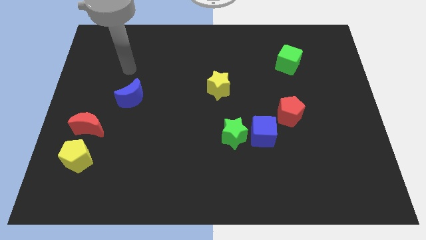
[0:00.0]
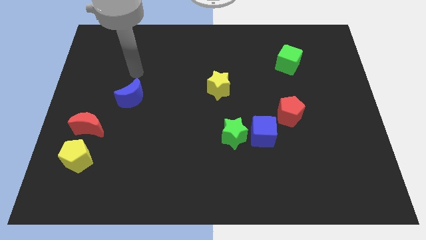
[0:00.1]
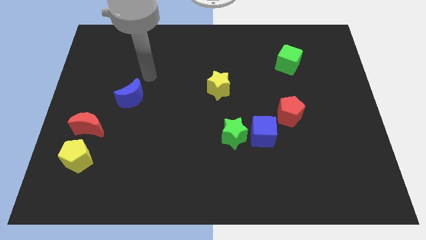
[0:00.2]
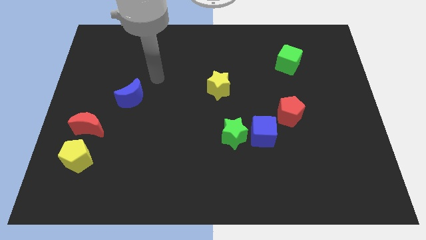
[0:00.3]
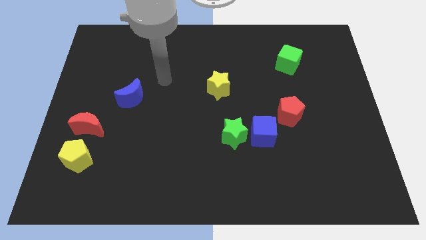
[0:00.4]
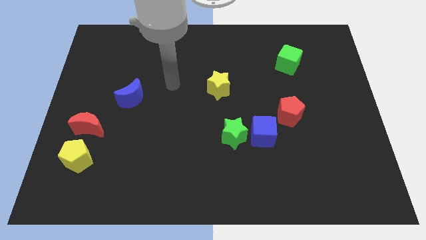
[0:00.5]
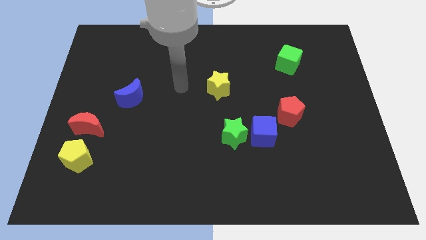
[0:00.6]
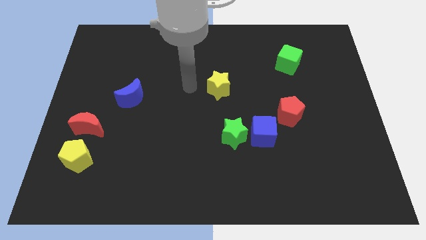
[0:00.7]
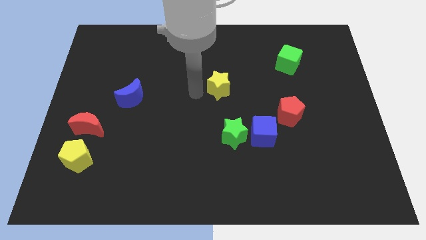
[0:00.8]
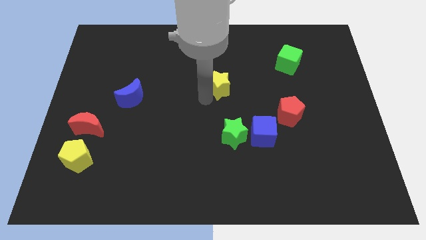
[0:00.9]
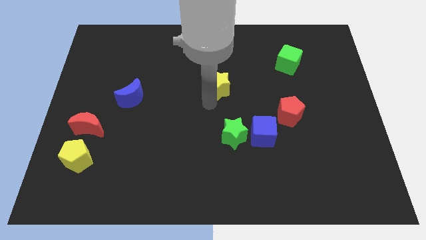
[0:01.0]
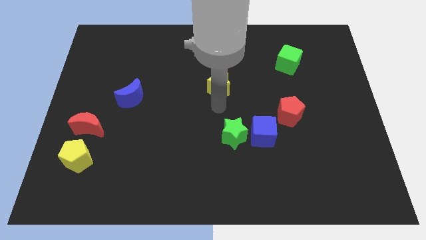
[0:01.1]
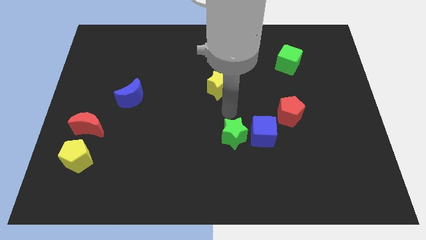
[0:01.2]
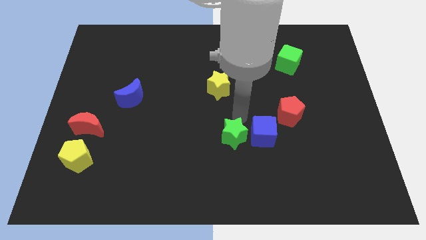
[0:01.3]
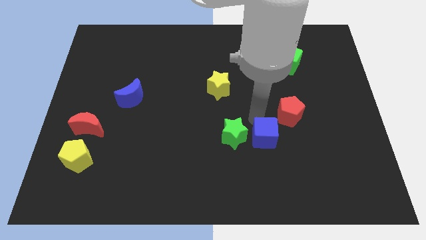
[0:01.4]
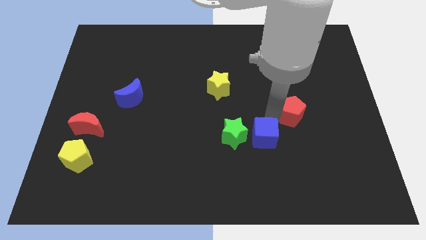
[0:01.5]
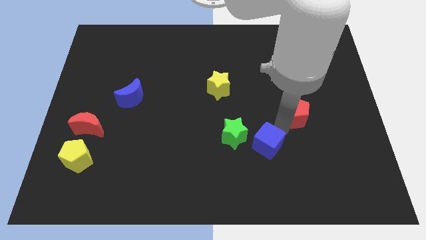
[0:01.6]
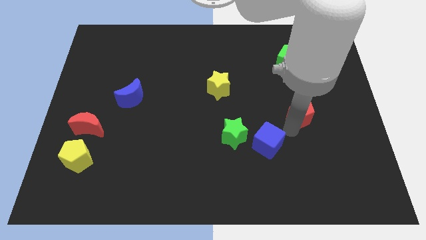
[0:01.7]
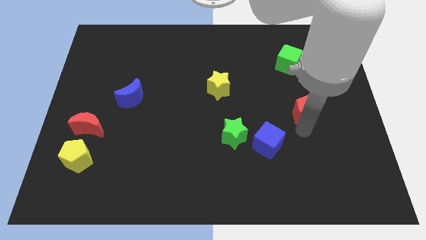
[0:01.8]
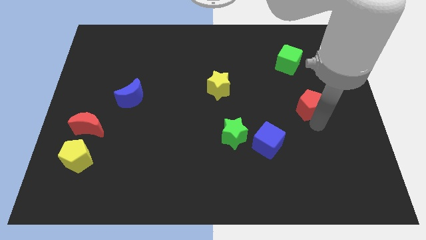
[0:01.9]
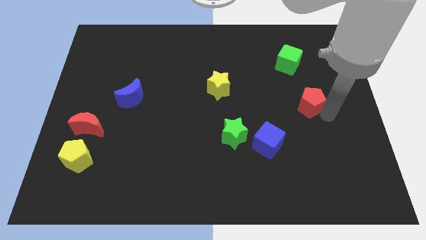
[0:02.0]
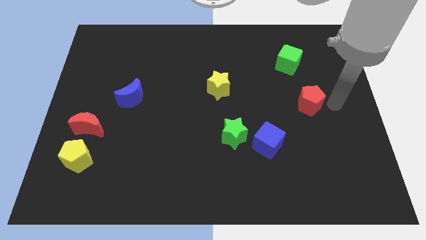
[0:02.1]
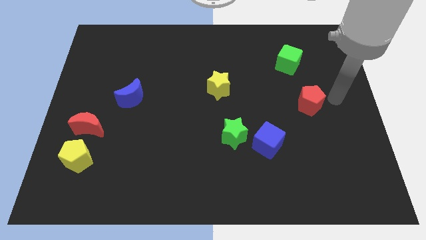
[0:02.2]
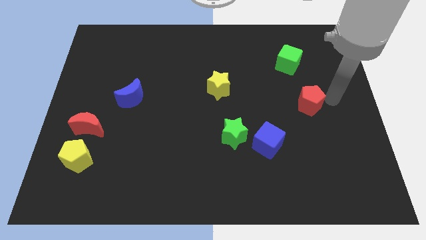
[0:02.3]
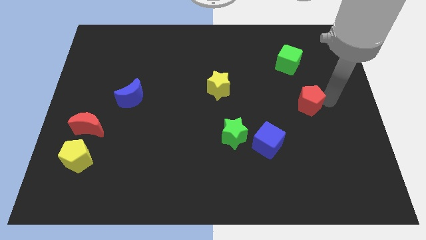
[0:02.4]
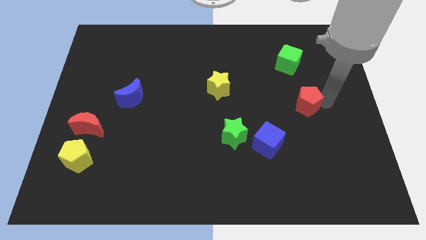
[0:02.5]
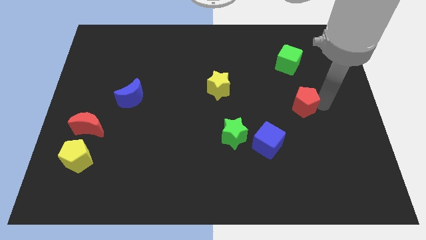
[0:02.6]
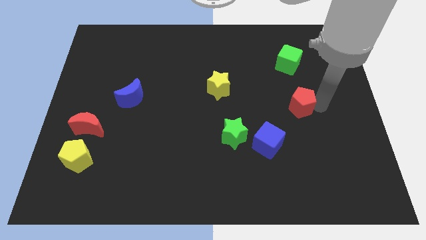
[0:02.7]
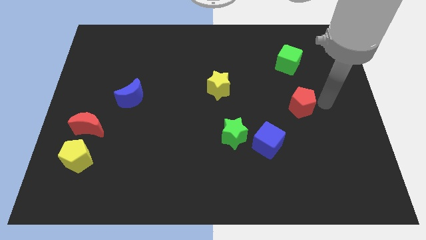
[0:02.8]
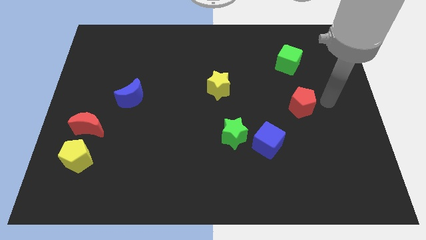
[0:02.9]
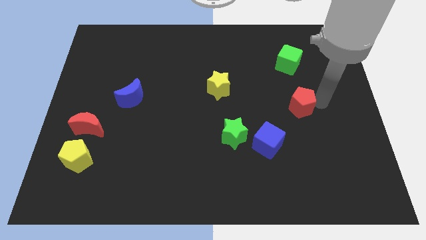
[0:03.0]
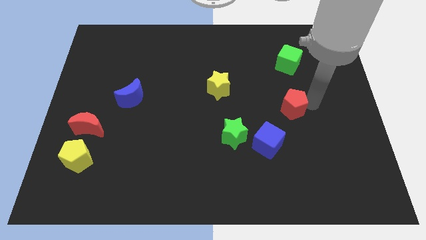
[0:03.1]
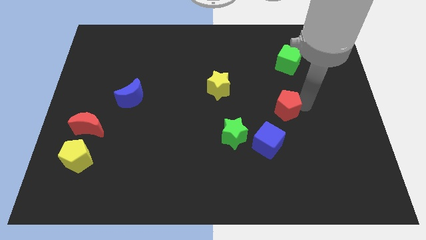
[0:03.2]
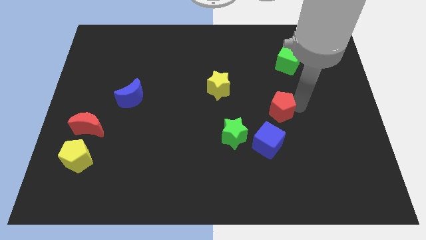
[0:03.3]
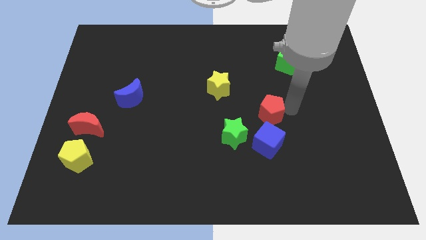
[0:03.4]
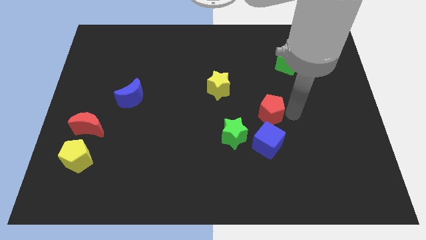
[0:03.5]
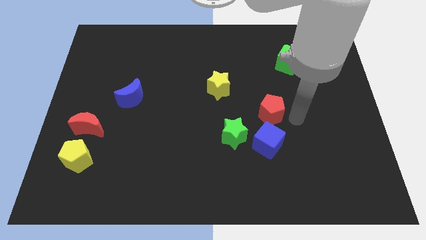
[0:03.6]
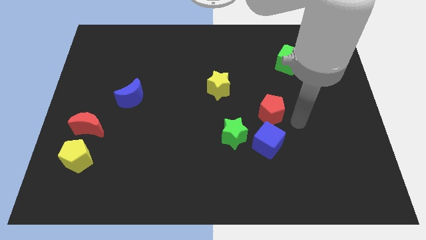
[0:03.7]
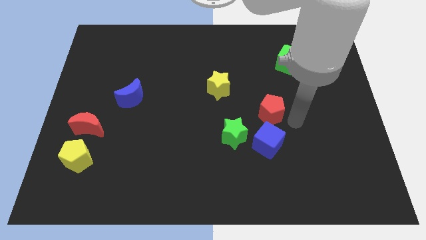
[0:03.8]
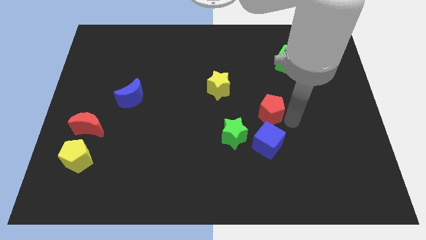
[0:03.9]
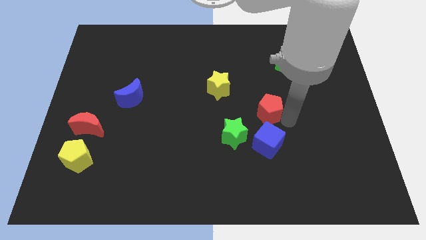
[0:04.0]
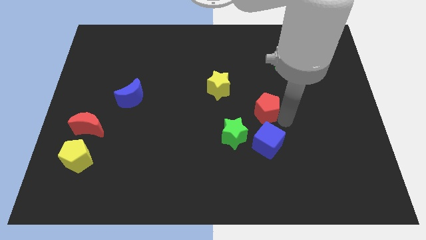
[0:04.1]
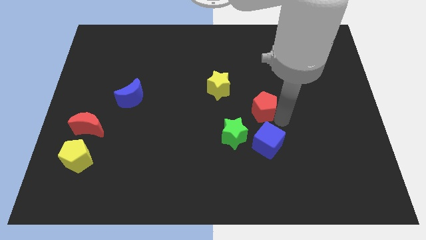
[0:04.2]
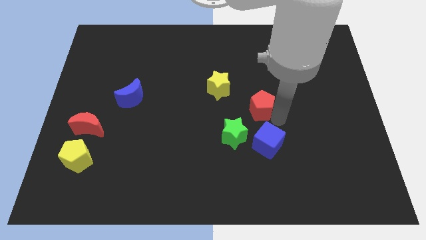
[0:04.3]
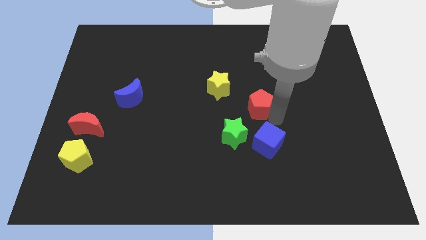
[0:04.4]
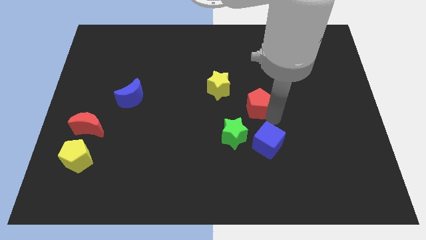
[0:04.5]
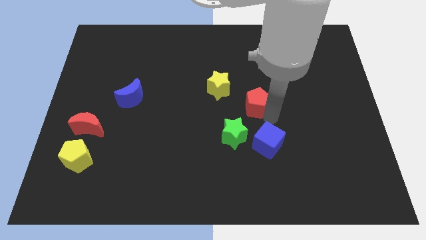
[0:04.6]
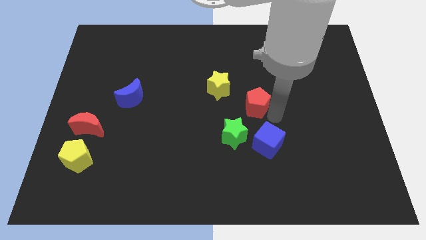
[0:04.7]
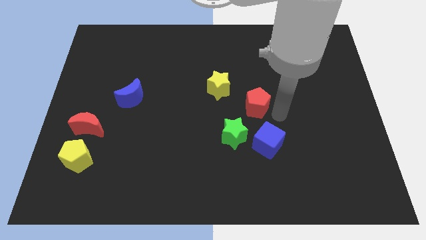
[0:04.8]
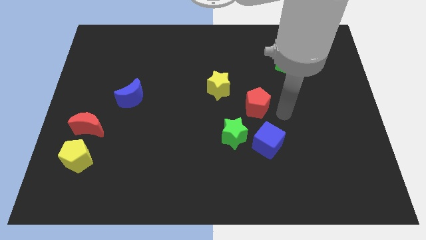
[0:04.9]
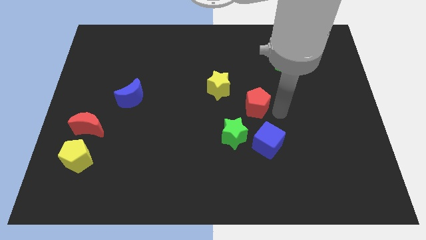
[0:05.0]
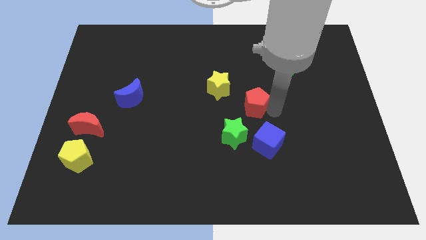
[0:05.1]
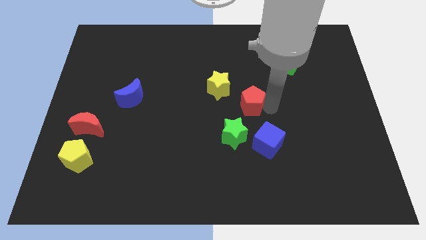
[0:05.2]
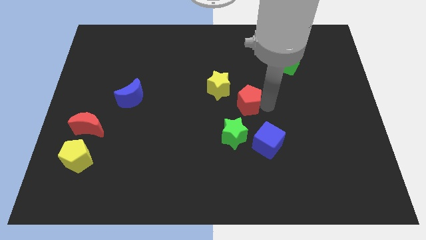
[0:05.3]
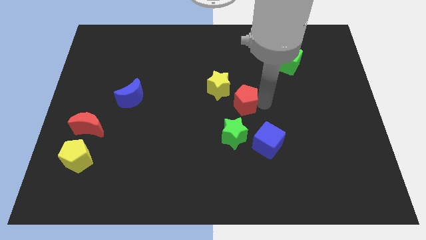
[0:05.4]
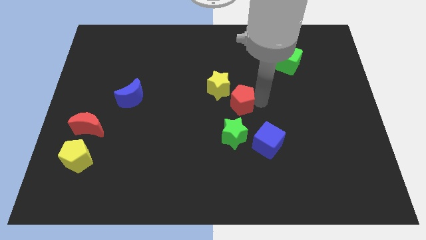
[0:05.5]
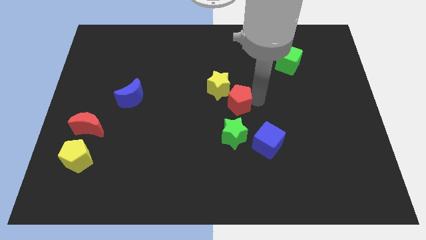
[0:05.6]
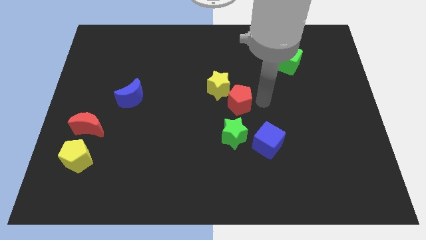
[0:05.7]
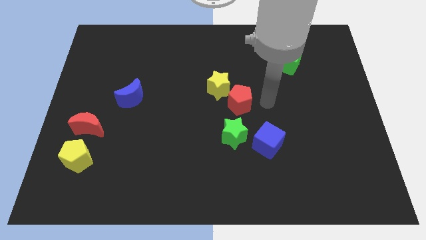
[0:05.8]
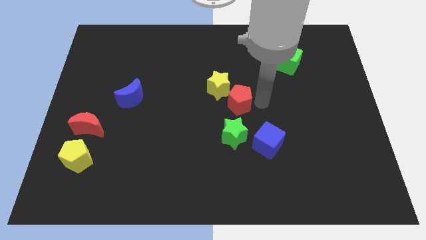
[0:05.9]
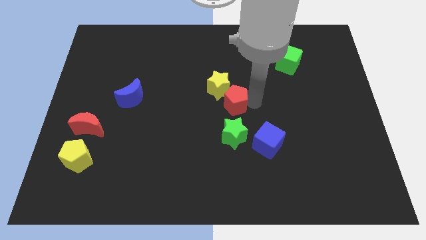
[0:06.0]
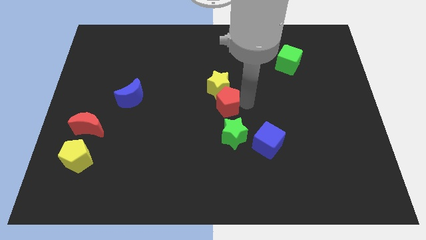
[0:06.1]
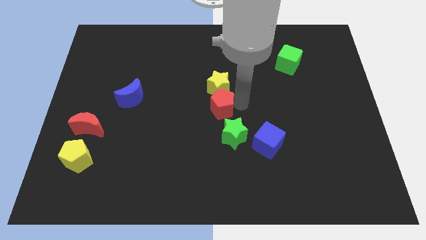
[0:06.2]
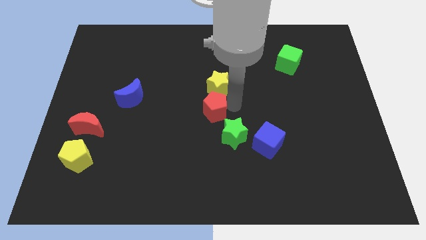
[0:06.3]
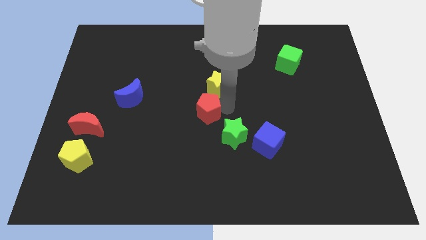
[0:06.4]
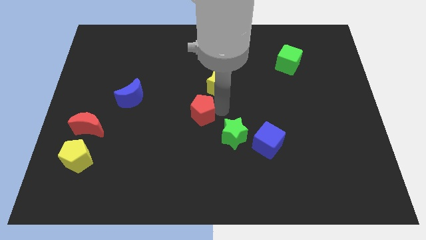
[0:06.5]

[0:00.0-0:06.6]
push the red pentagon left

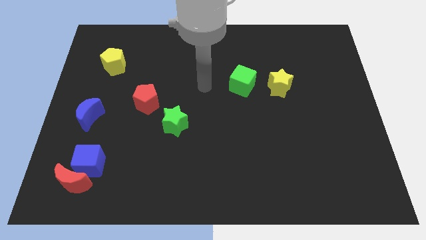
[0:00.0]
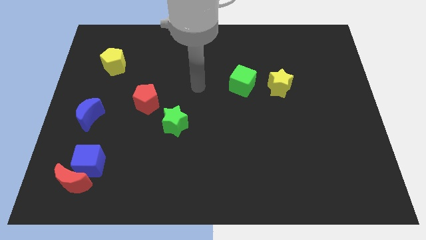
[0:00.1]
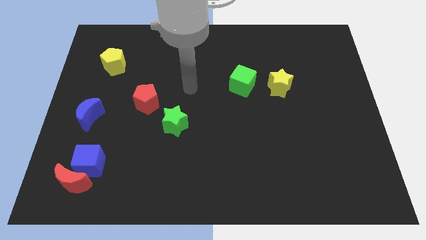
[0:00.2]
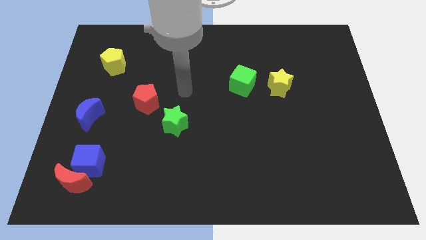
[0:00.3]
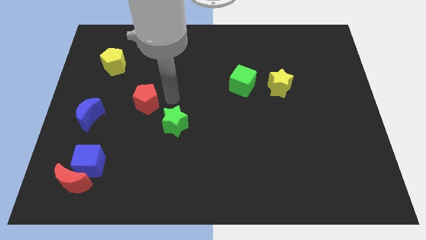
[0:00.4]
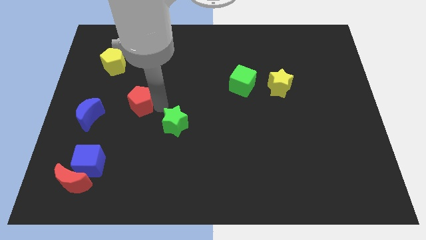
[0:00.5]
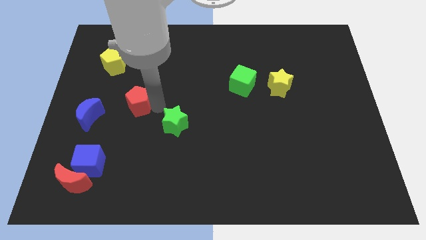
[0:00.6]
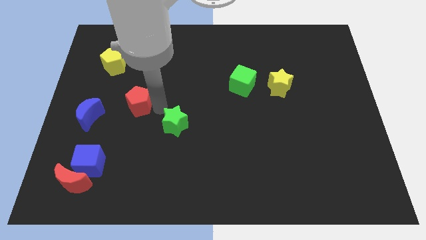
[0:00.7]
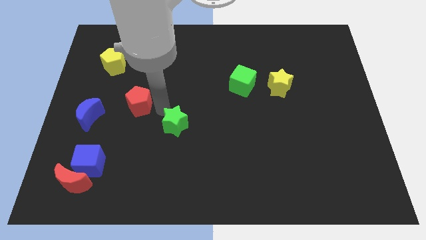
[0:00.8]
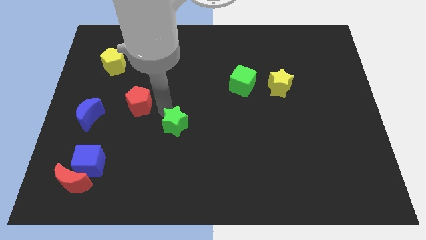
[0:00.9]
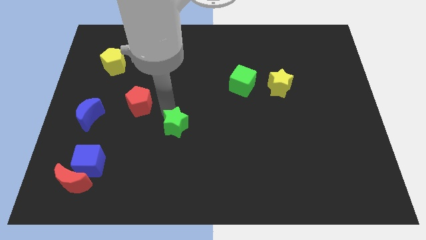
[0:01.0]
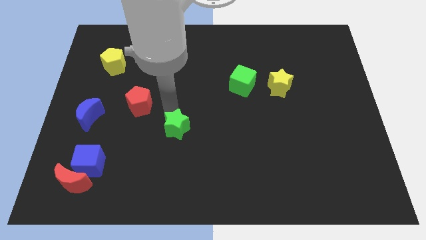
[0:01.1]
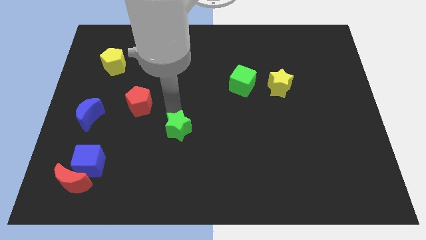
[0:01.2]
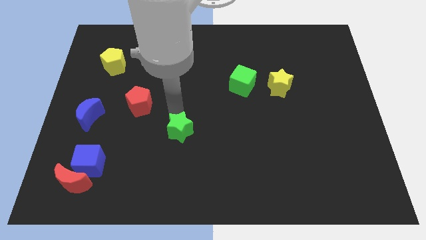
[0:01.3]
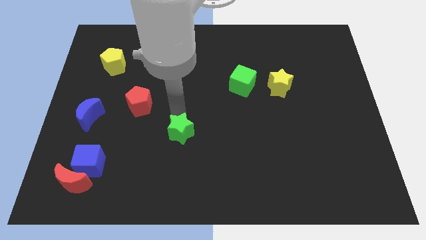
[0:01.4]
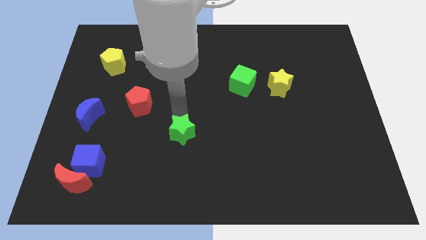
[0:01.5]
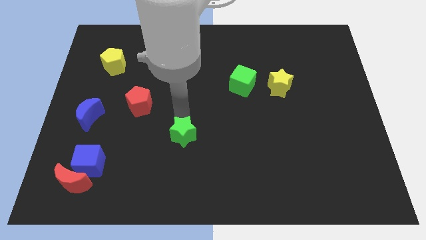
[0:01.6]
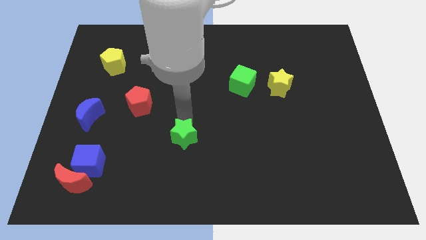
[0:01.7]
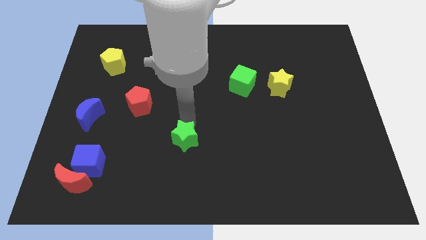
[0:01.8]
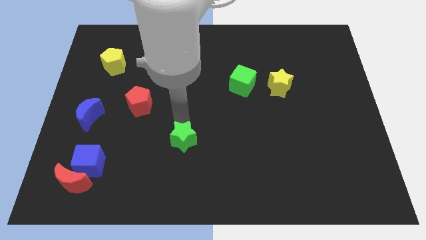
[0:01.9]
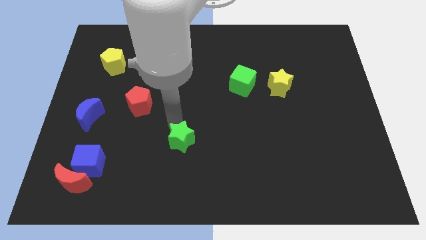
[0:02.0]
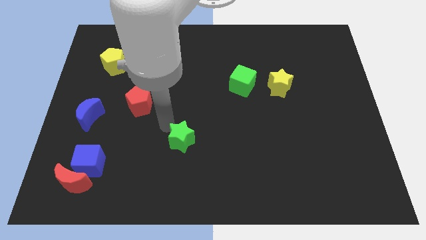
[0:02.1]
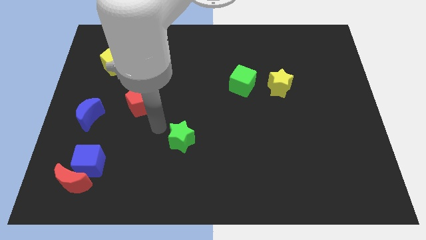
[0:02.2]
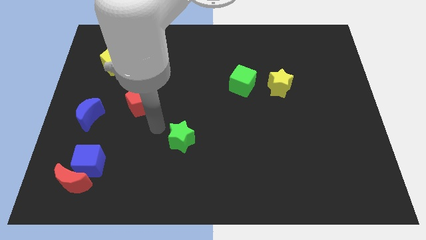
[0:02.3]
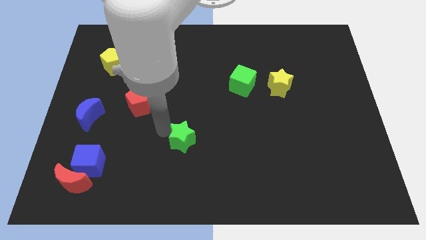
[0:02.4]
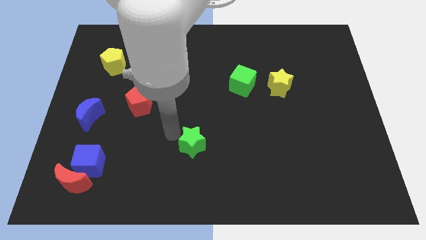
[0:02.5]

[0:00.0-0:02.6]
slightly move the green star down and then to the right
